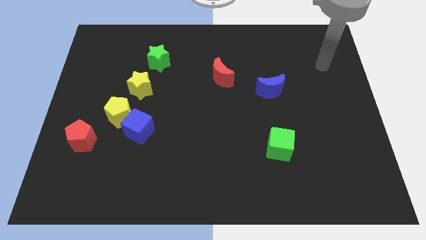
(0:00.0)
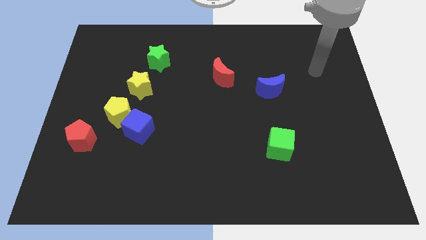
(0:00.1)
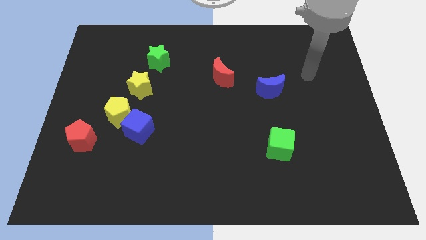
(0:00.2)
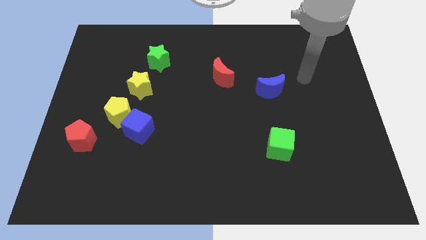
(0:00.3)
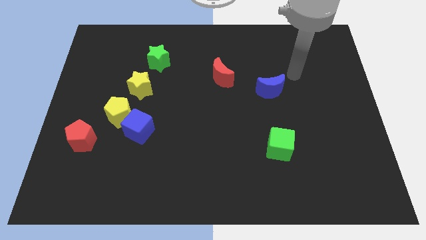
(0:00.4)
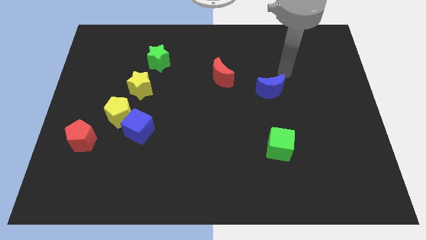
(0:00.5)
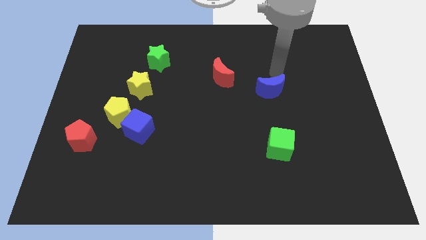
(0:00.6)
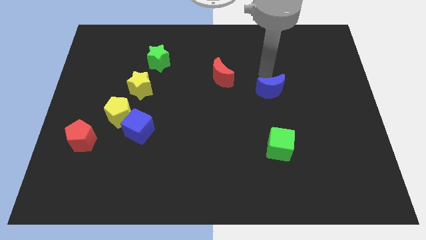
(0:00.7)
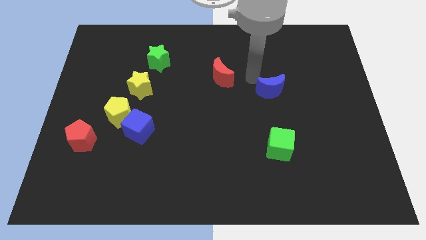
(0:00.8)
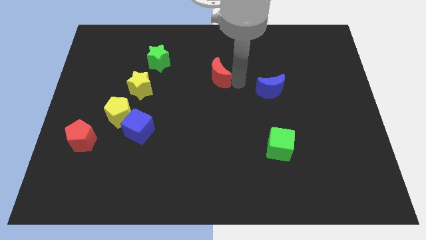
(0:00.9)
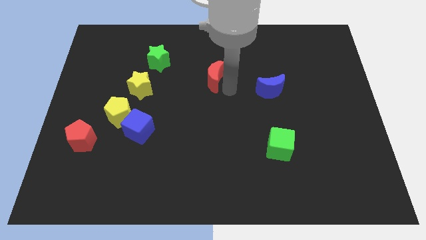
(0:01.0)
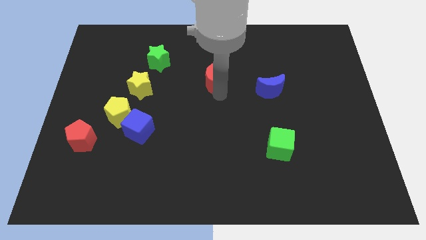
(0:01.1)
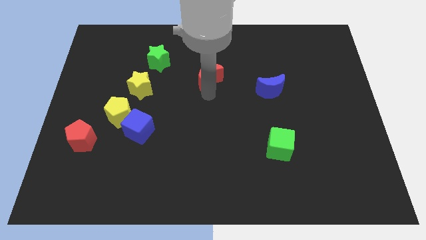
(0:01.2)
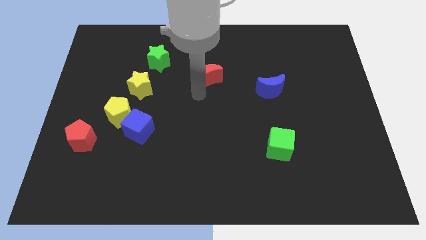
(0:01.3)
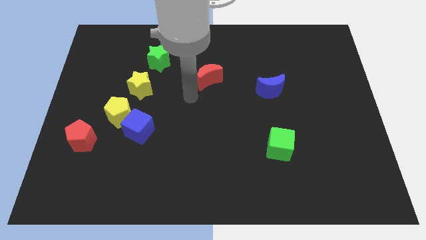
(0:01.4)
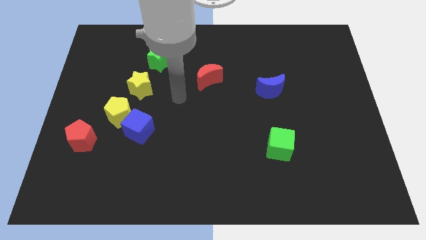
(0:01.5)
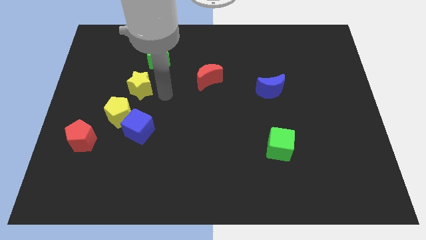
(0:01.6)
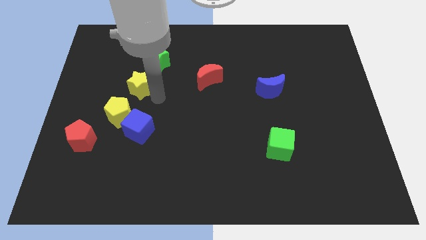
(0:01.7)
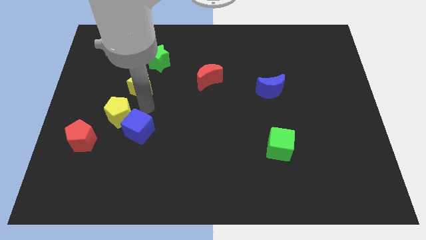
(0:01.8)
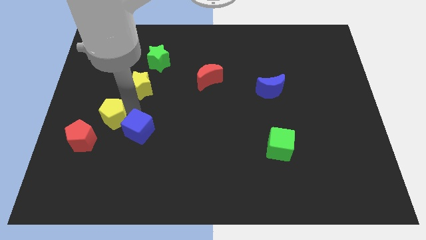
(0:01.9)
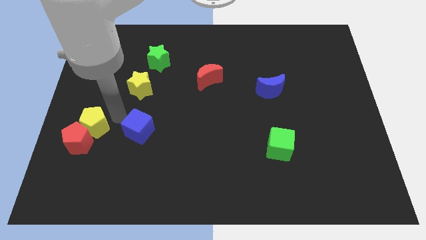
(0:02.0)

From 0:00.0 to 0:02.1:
pull the blue cube apart from the yellow pentagon

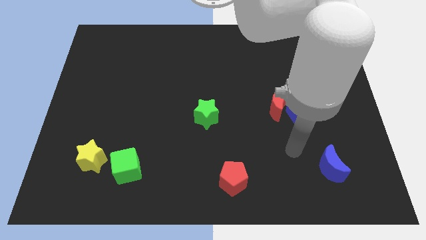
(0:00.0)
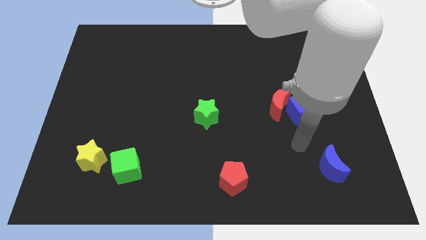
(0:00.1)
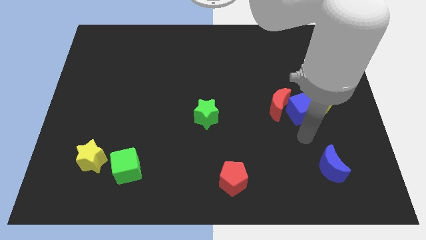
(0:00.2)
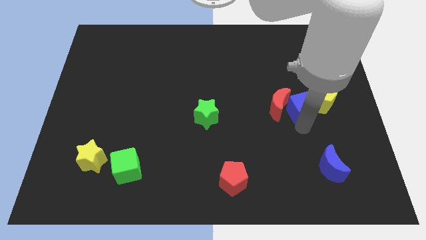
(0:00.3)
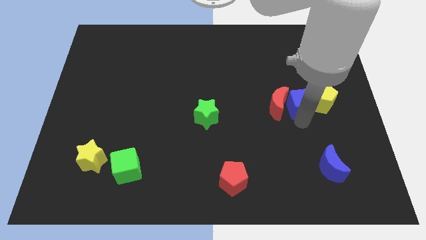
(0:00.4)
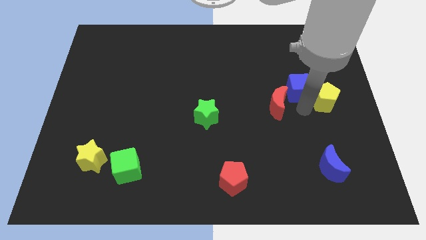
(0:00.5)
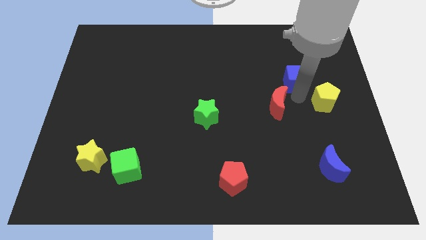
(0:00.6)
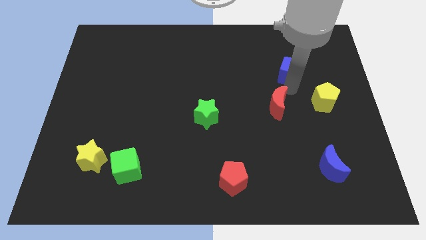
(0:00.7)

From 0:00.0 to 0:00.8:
move the red moon away from the blue cube

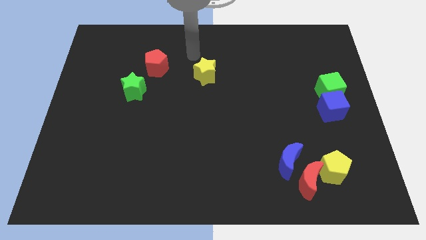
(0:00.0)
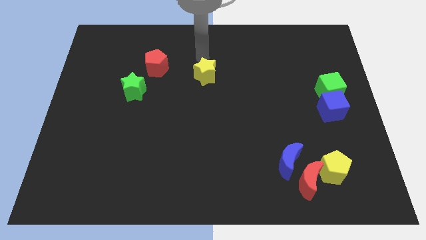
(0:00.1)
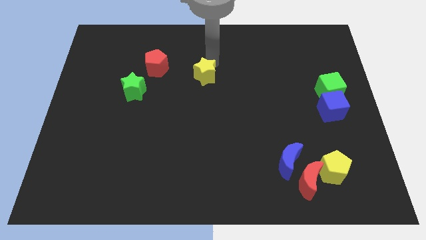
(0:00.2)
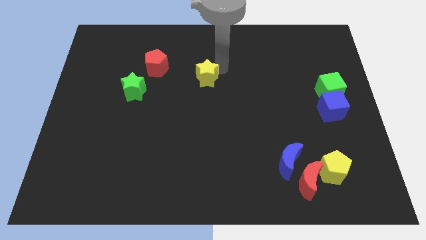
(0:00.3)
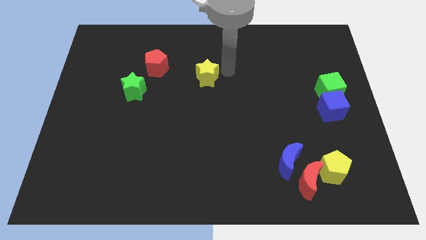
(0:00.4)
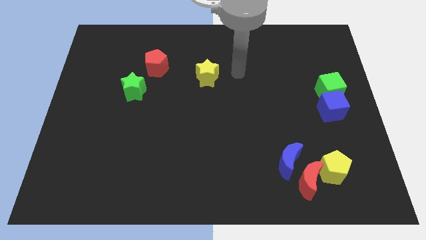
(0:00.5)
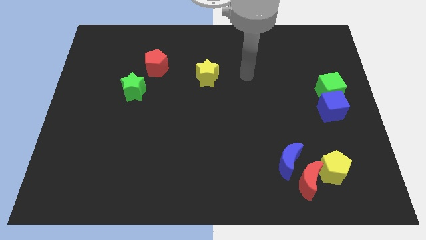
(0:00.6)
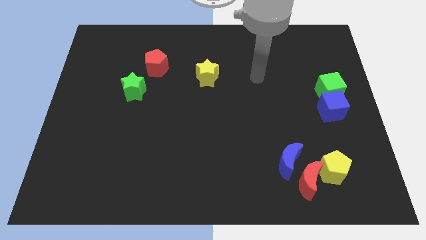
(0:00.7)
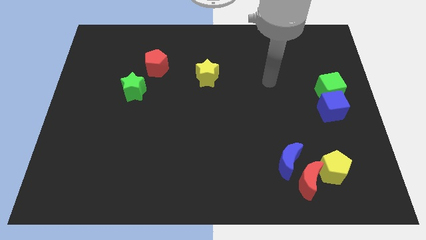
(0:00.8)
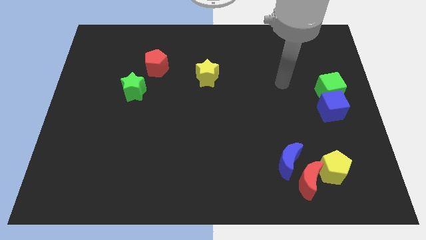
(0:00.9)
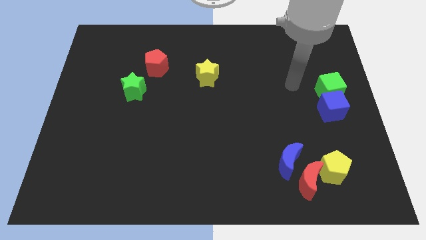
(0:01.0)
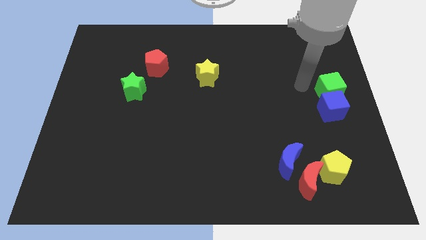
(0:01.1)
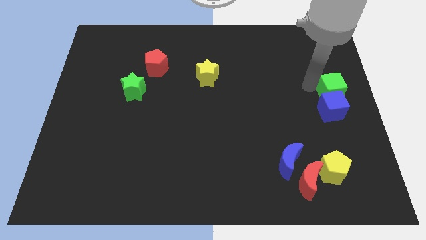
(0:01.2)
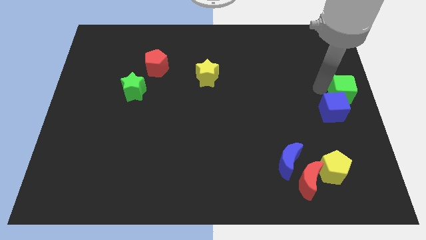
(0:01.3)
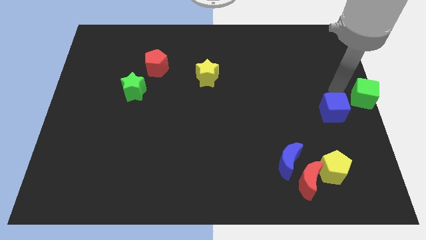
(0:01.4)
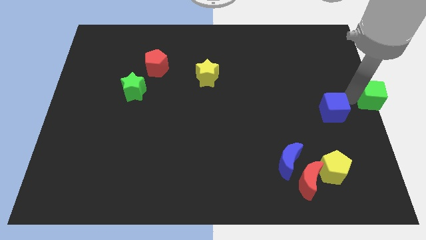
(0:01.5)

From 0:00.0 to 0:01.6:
pull the blue cube apart from the green cube

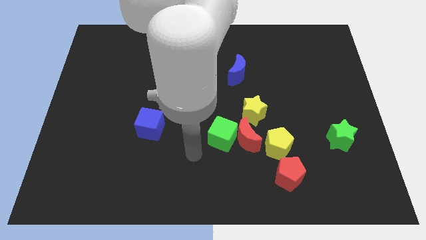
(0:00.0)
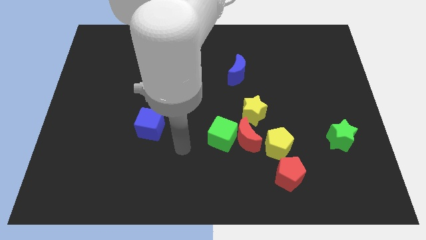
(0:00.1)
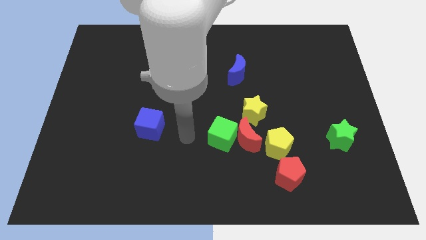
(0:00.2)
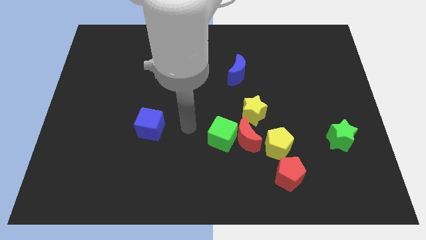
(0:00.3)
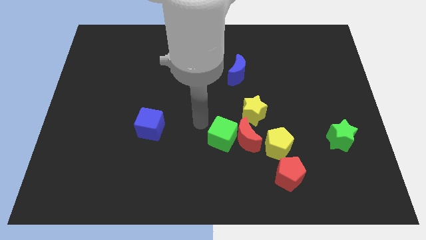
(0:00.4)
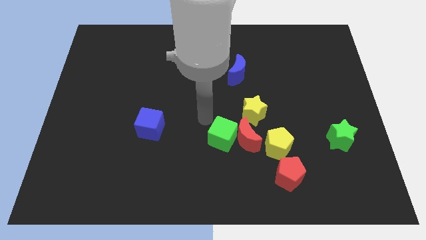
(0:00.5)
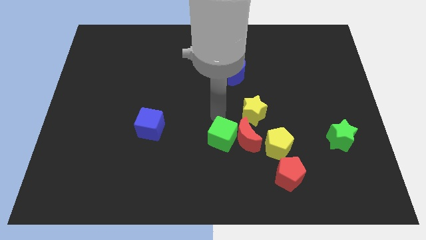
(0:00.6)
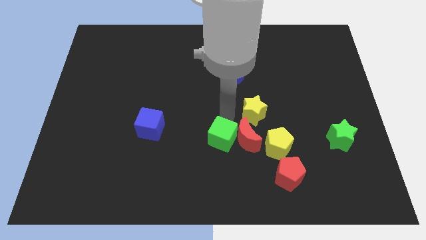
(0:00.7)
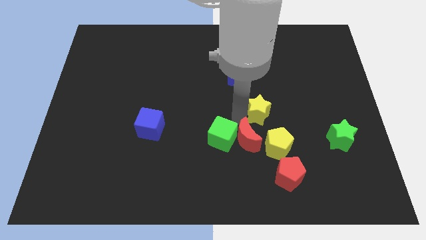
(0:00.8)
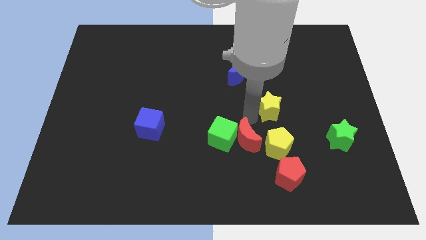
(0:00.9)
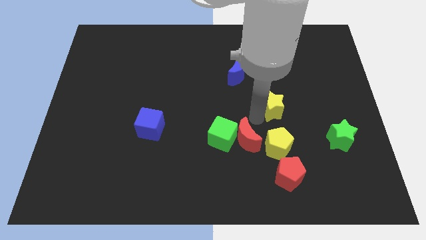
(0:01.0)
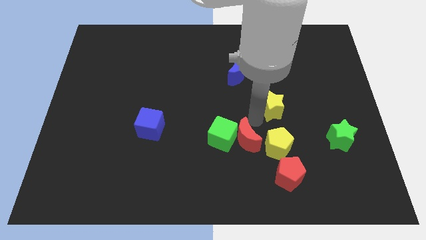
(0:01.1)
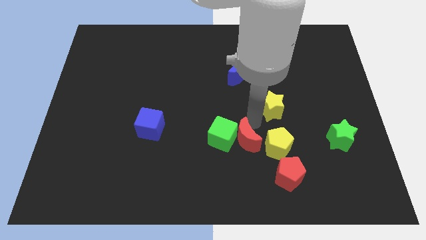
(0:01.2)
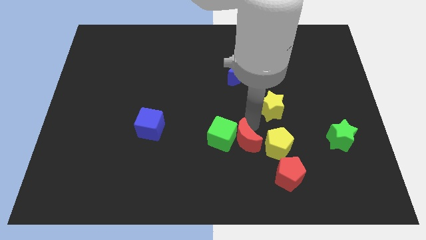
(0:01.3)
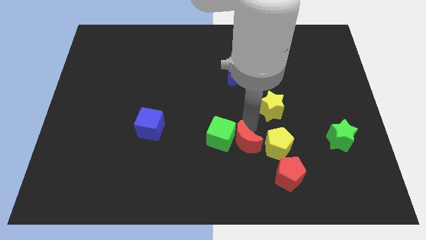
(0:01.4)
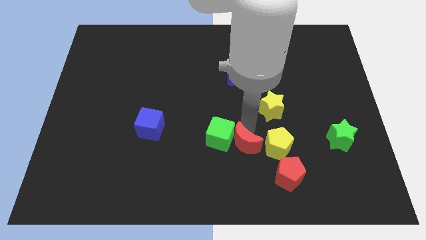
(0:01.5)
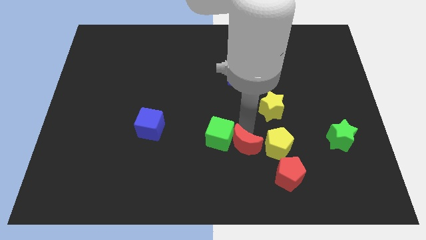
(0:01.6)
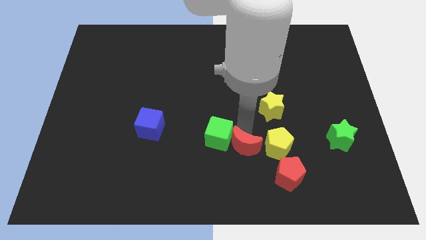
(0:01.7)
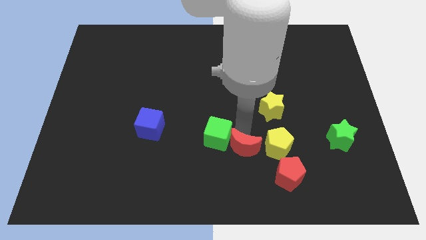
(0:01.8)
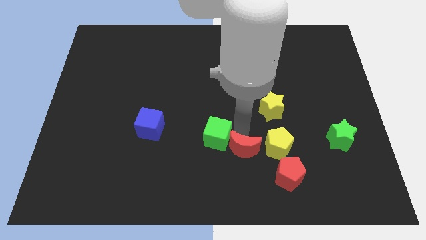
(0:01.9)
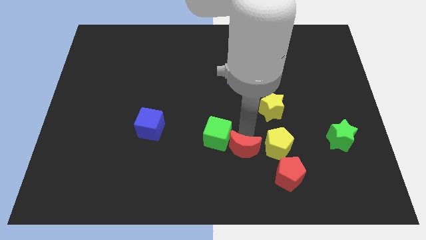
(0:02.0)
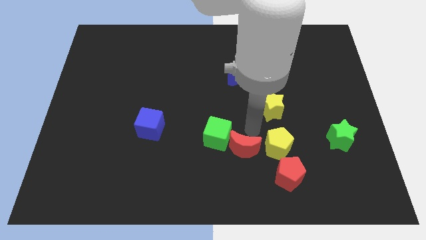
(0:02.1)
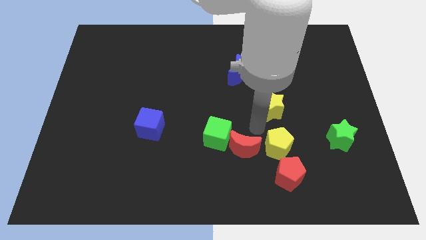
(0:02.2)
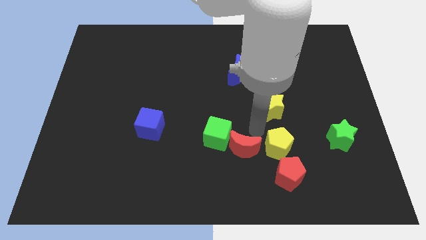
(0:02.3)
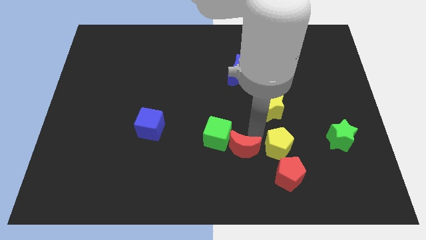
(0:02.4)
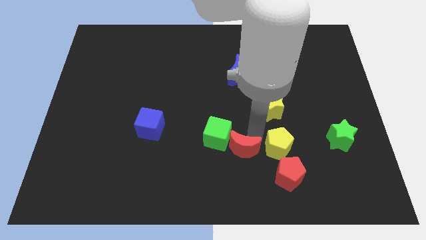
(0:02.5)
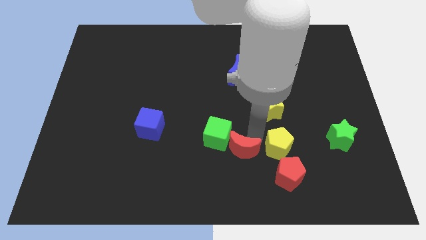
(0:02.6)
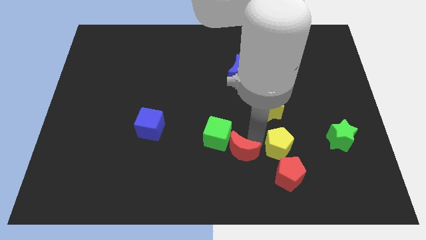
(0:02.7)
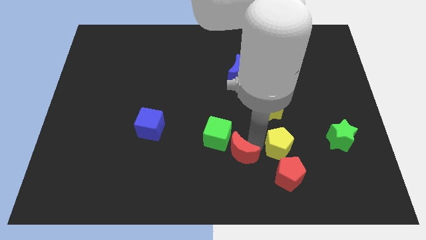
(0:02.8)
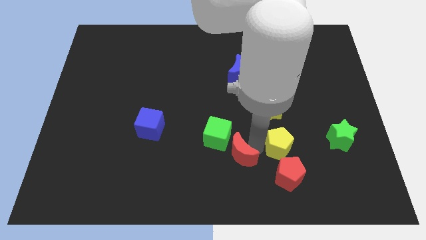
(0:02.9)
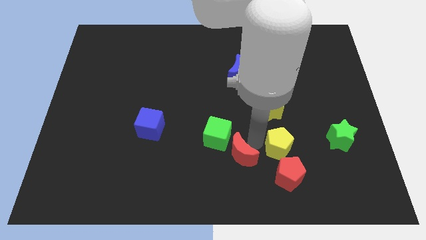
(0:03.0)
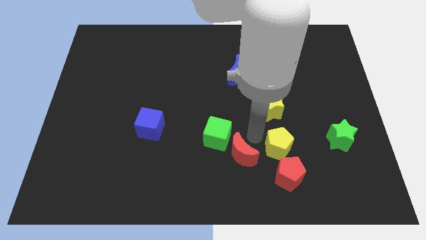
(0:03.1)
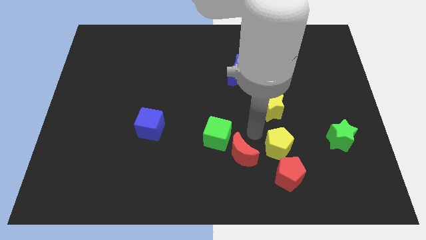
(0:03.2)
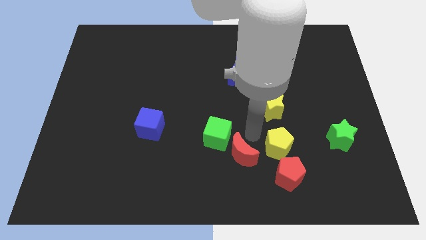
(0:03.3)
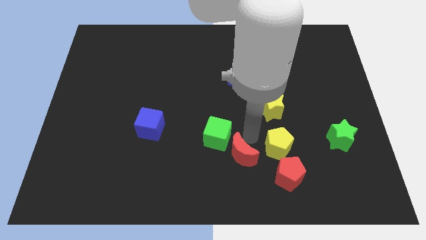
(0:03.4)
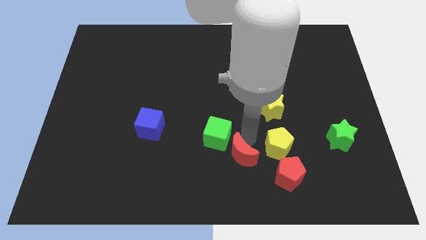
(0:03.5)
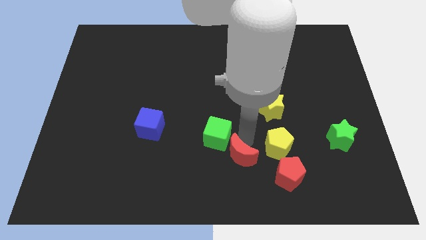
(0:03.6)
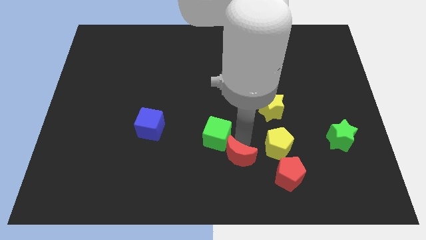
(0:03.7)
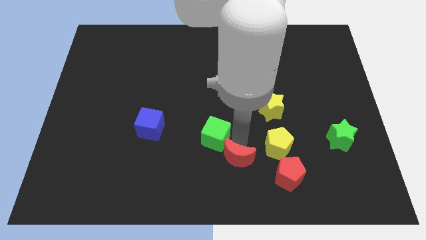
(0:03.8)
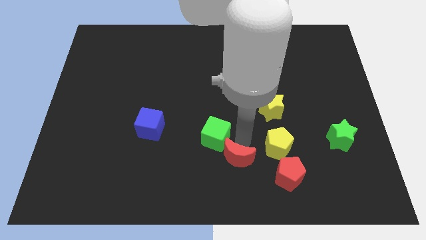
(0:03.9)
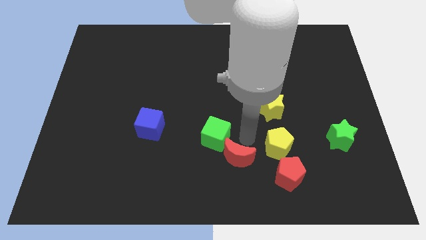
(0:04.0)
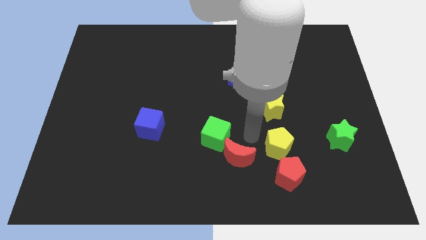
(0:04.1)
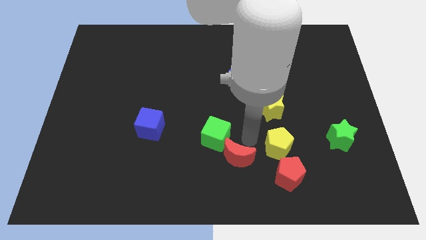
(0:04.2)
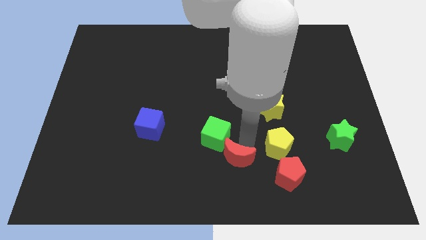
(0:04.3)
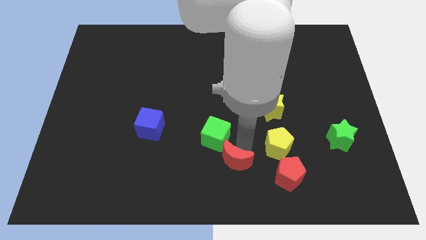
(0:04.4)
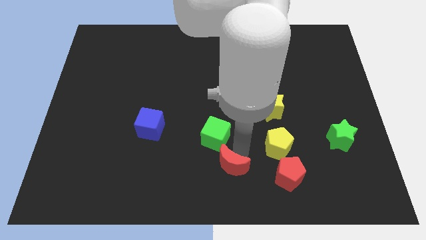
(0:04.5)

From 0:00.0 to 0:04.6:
move the red moon away from the green cube, yellow pentagon, and yellow star

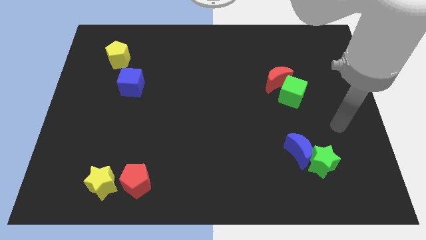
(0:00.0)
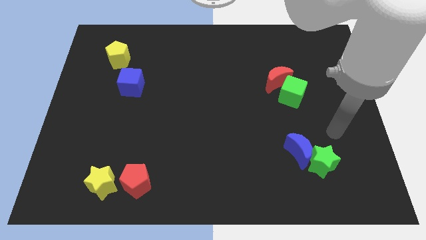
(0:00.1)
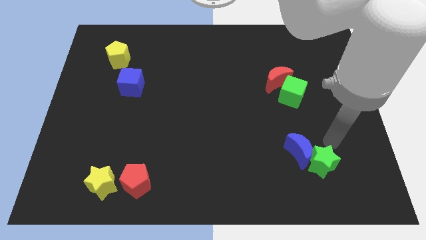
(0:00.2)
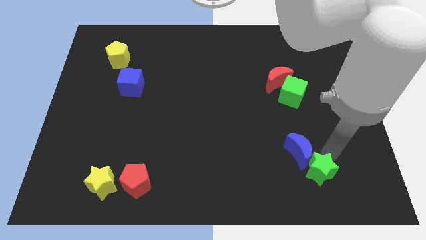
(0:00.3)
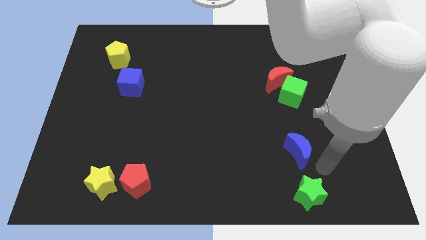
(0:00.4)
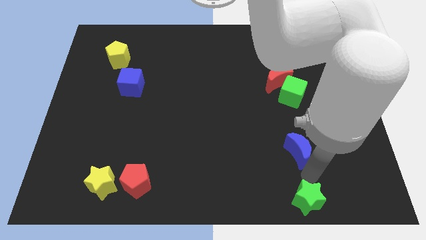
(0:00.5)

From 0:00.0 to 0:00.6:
separate the blue moon from the green star
